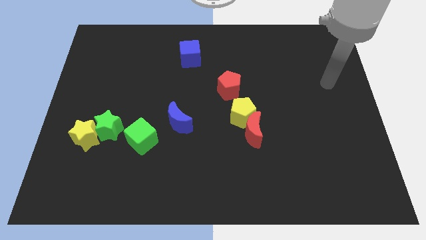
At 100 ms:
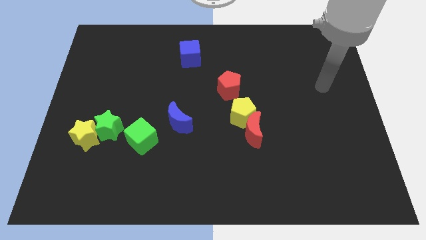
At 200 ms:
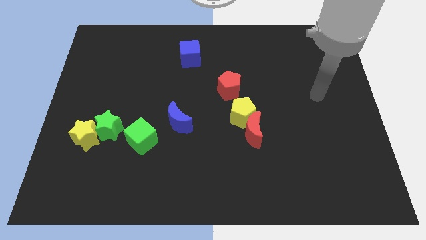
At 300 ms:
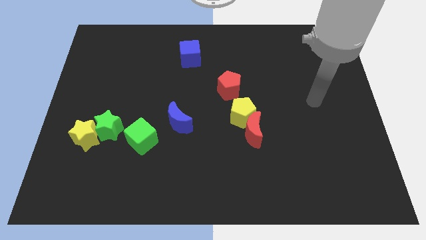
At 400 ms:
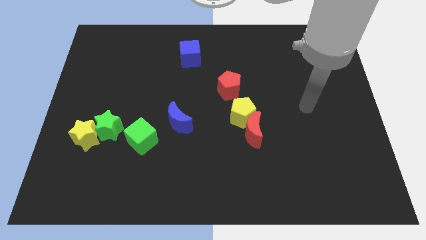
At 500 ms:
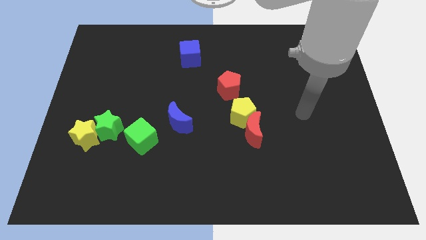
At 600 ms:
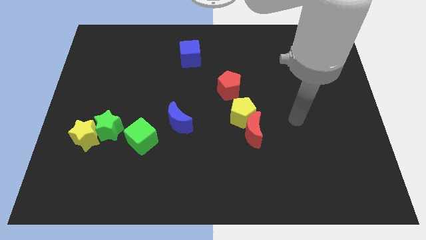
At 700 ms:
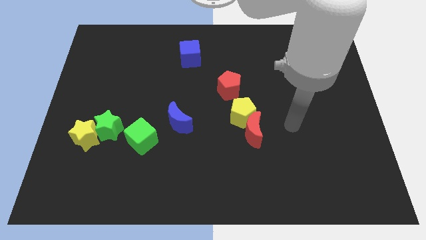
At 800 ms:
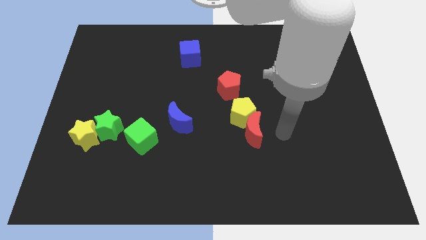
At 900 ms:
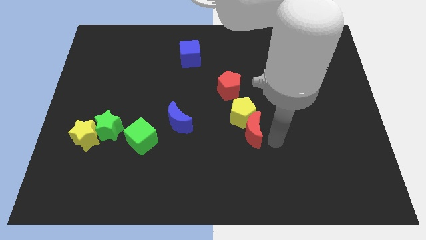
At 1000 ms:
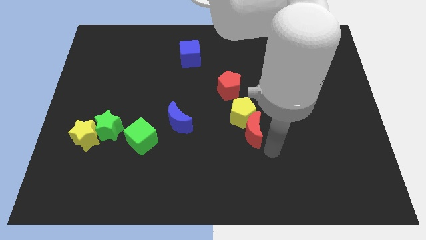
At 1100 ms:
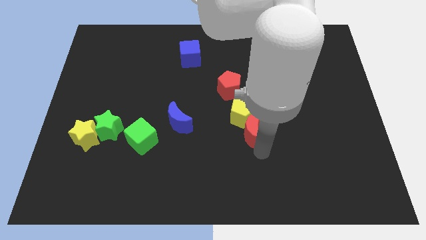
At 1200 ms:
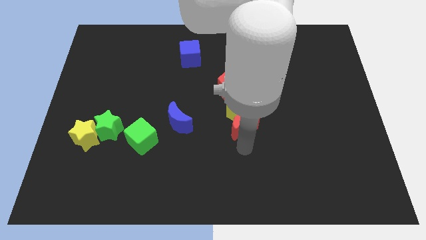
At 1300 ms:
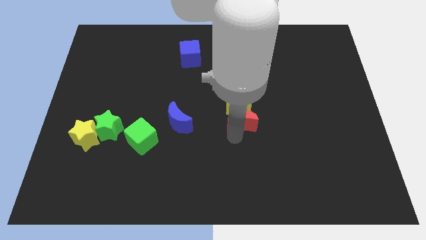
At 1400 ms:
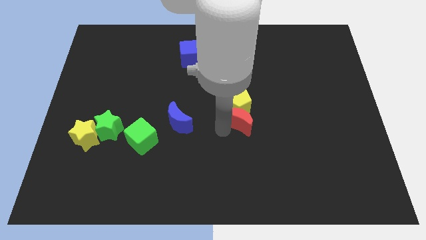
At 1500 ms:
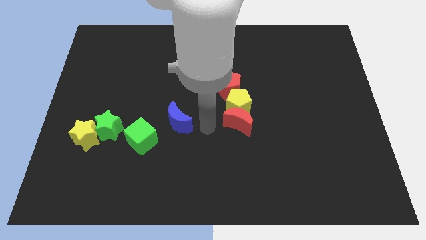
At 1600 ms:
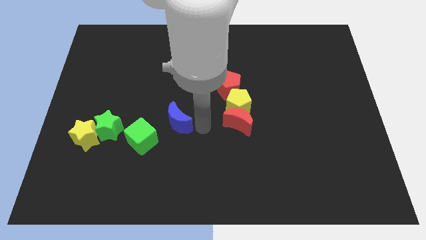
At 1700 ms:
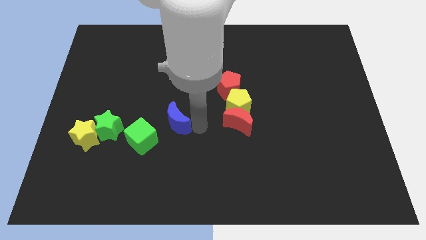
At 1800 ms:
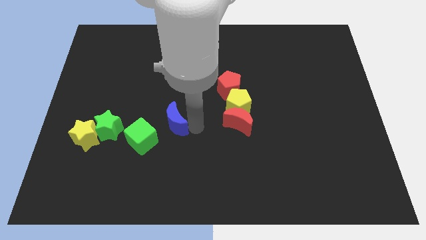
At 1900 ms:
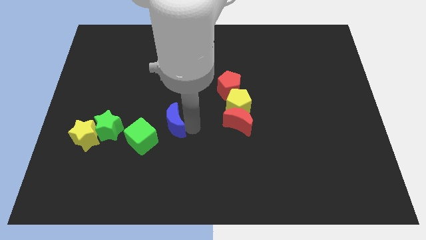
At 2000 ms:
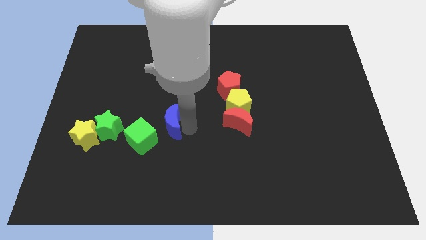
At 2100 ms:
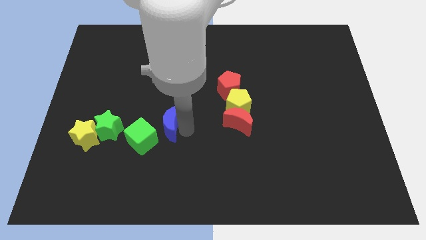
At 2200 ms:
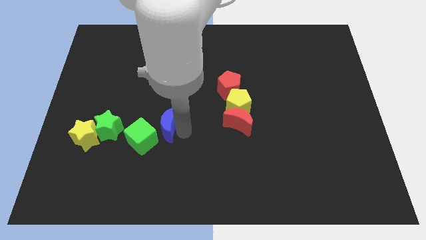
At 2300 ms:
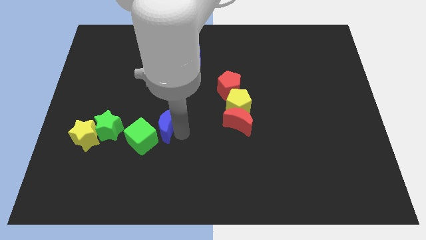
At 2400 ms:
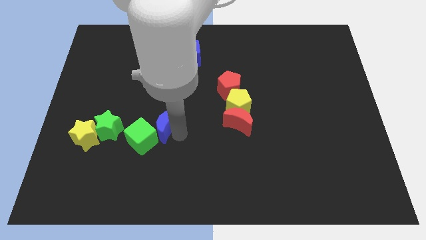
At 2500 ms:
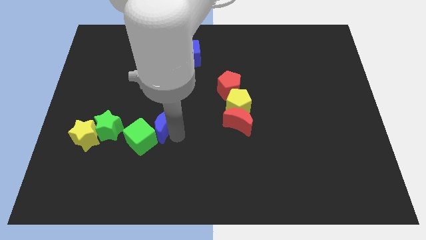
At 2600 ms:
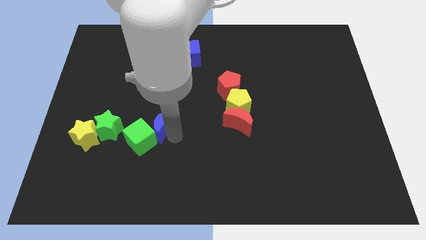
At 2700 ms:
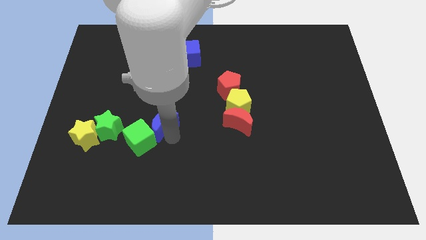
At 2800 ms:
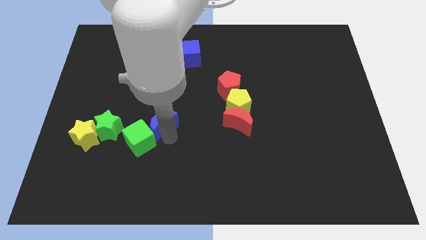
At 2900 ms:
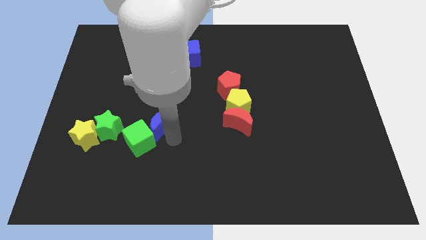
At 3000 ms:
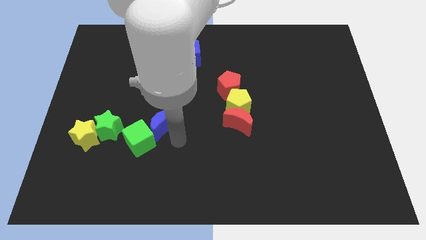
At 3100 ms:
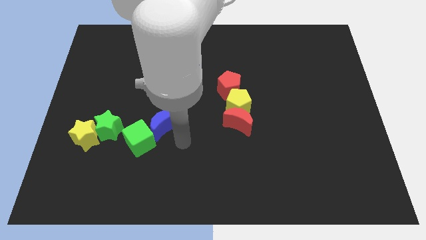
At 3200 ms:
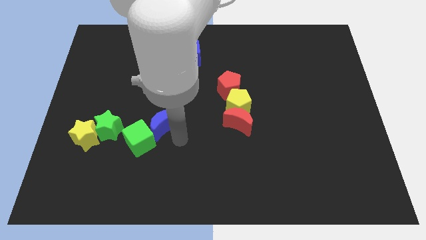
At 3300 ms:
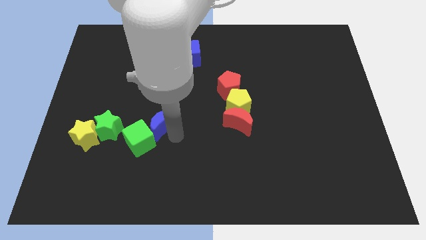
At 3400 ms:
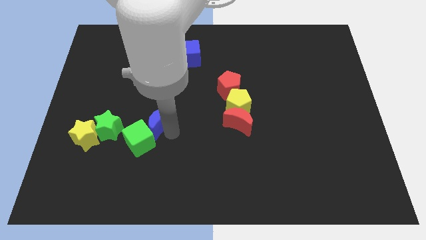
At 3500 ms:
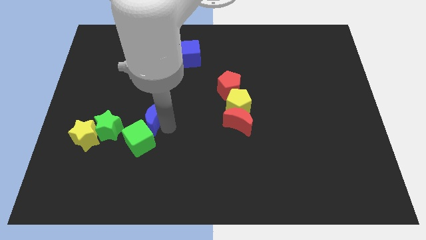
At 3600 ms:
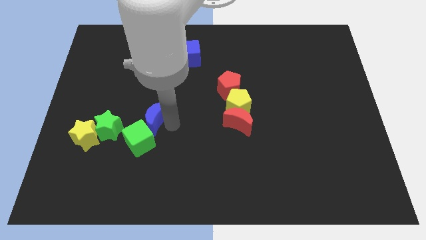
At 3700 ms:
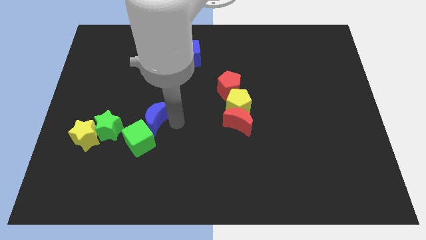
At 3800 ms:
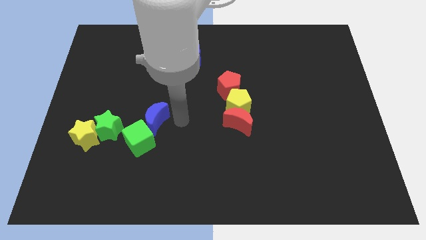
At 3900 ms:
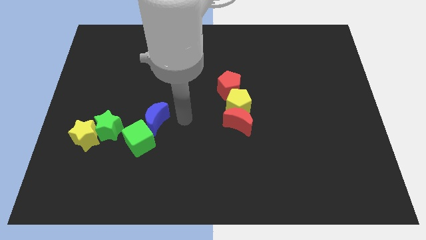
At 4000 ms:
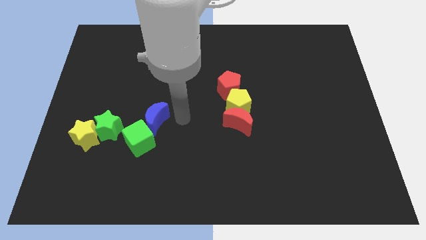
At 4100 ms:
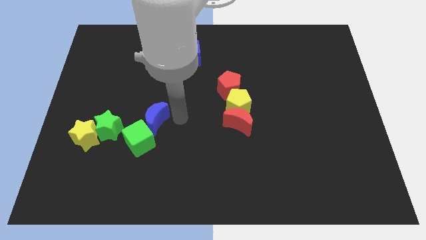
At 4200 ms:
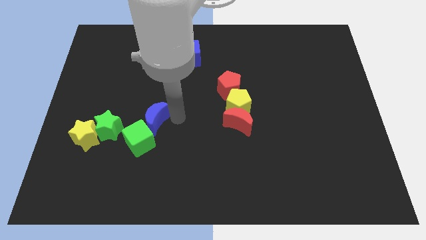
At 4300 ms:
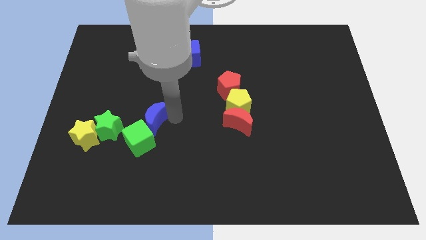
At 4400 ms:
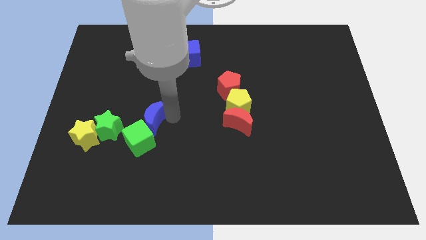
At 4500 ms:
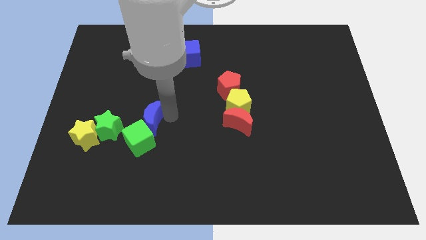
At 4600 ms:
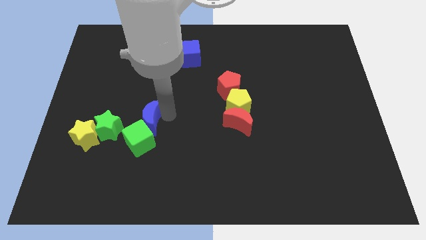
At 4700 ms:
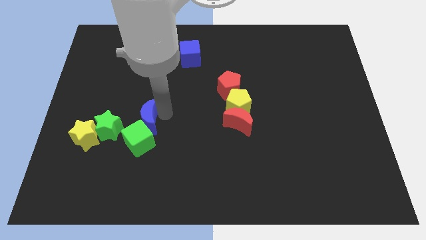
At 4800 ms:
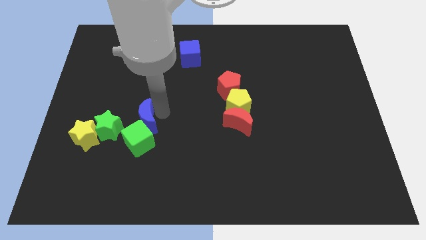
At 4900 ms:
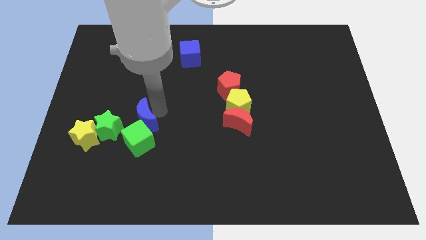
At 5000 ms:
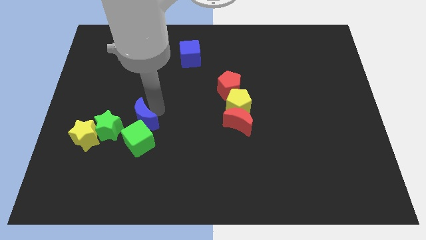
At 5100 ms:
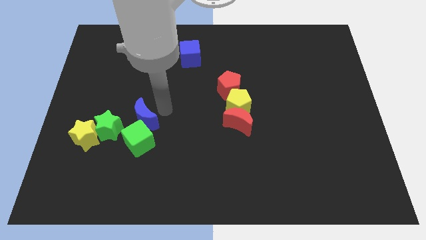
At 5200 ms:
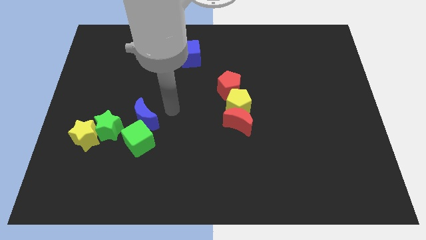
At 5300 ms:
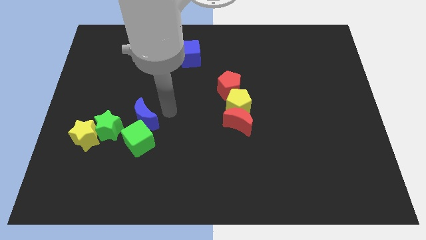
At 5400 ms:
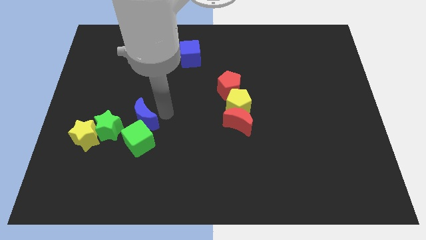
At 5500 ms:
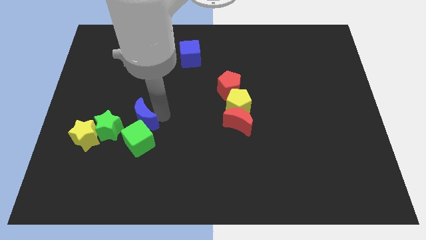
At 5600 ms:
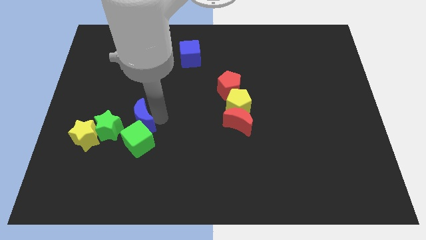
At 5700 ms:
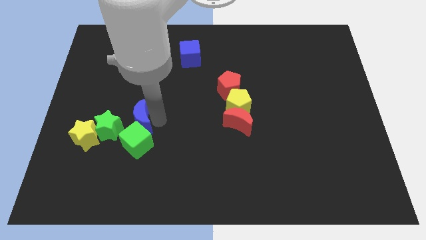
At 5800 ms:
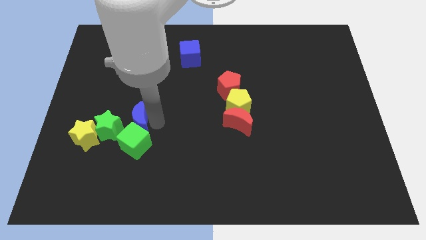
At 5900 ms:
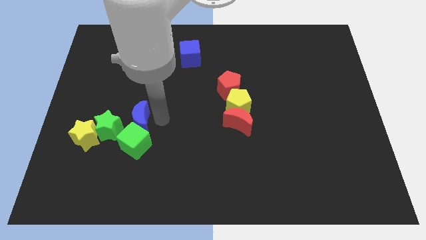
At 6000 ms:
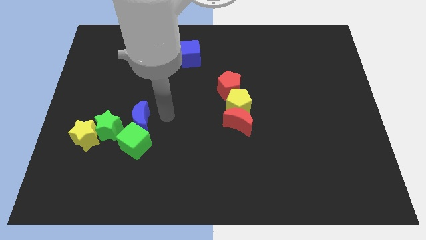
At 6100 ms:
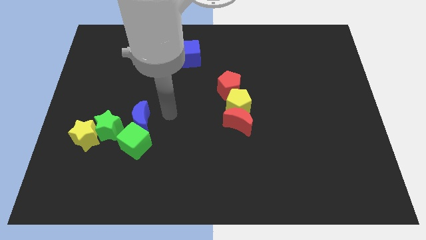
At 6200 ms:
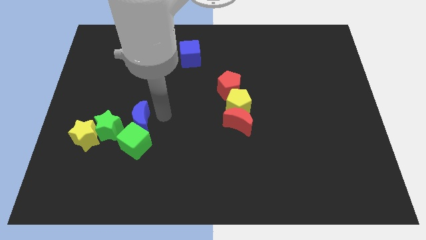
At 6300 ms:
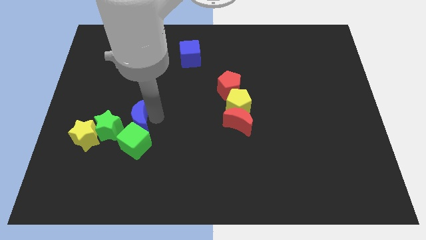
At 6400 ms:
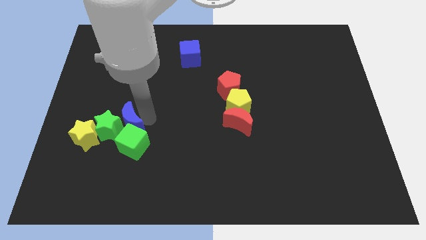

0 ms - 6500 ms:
move the blue moon next to the green star

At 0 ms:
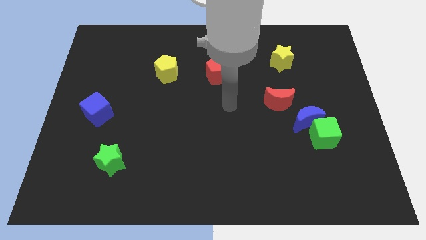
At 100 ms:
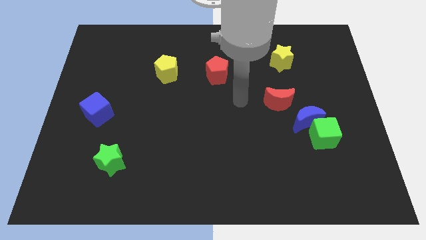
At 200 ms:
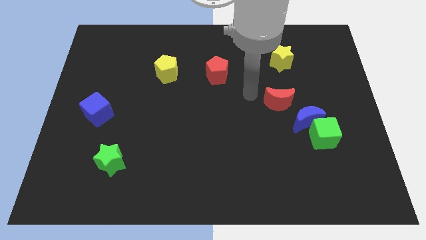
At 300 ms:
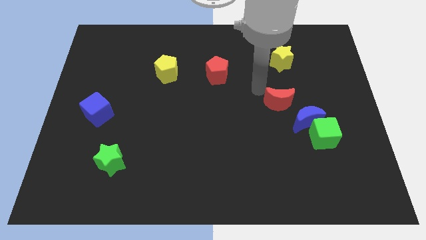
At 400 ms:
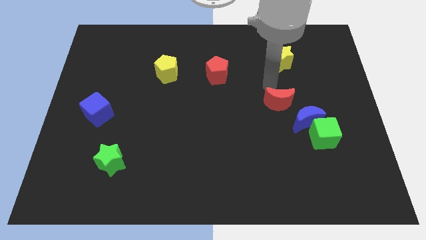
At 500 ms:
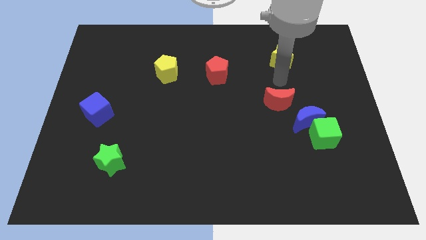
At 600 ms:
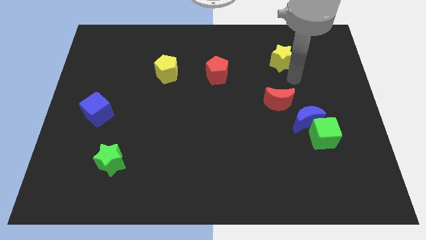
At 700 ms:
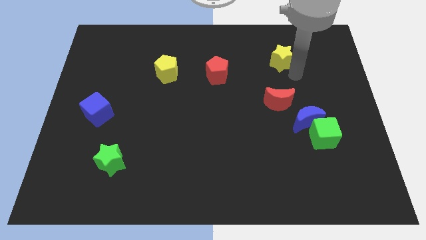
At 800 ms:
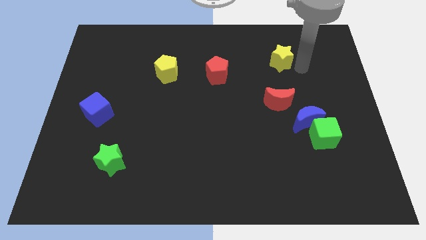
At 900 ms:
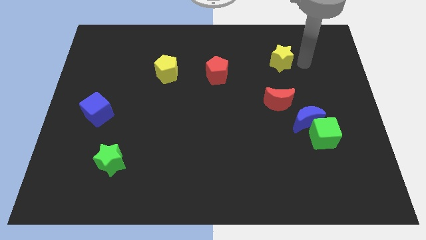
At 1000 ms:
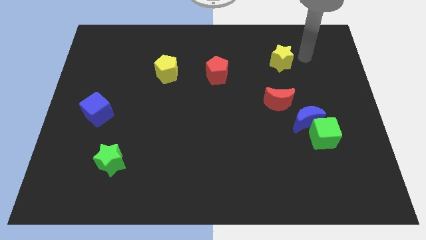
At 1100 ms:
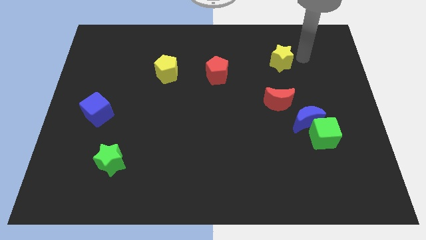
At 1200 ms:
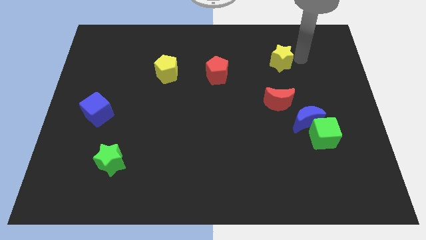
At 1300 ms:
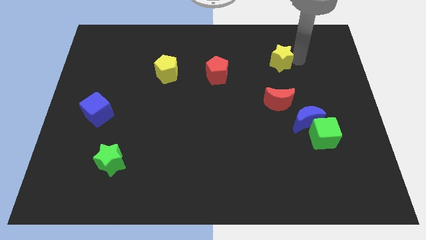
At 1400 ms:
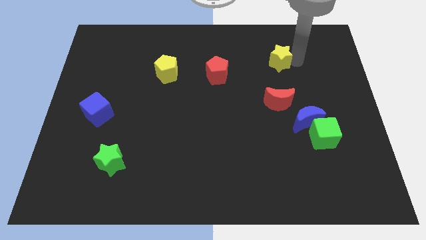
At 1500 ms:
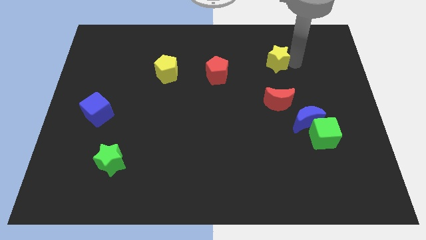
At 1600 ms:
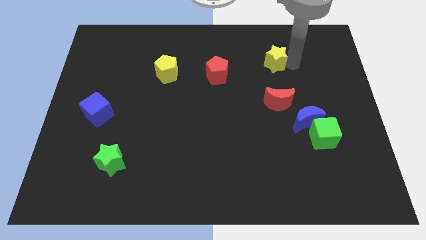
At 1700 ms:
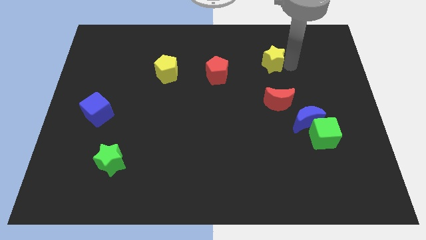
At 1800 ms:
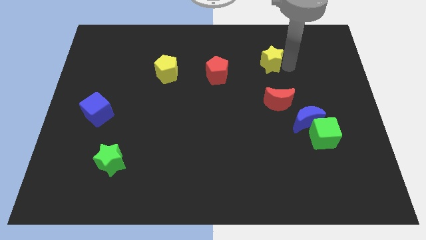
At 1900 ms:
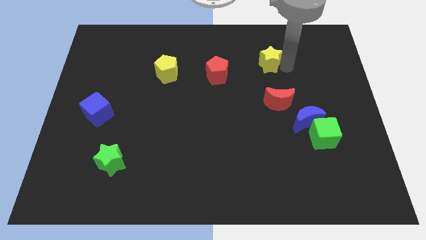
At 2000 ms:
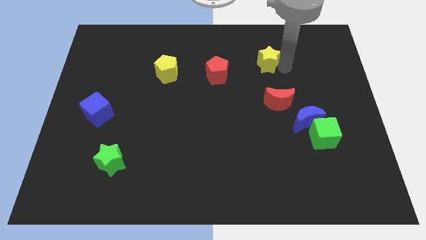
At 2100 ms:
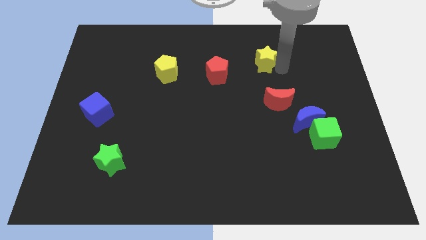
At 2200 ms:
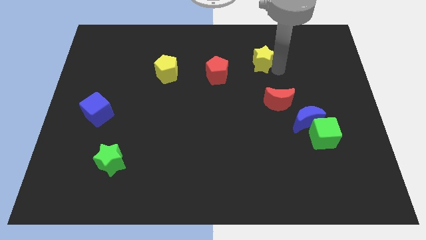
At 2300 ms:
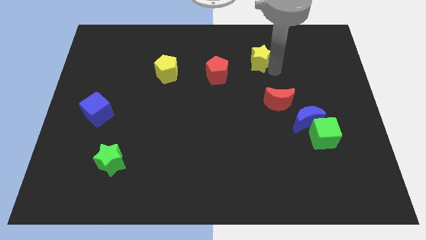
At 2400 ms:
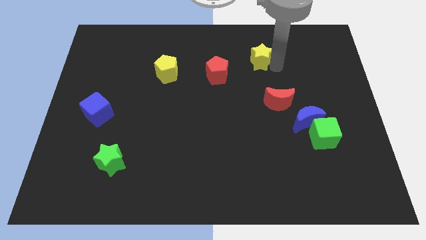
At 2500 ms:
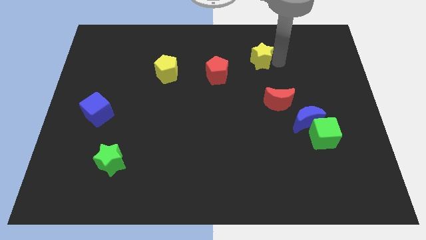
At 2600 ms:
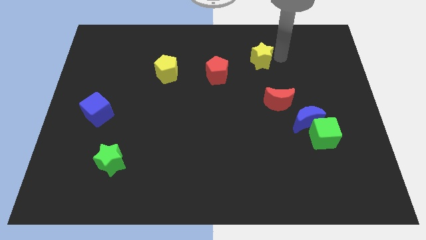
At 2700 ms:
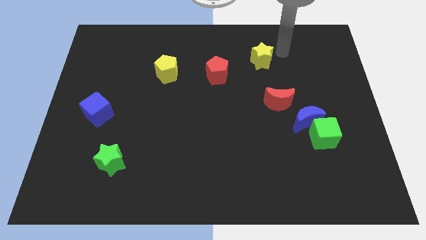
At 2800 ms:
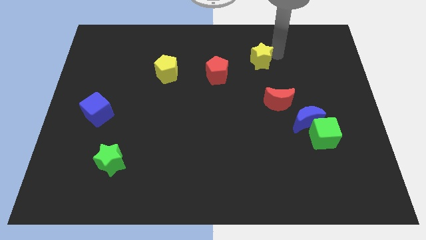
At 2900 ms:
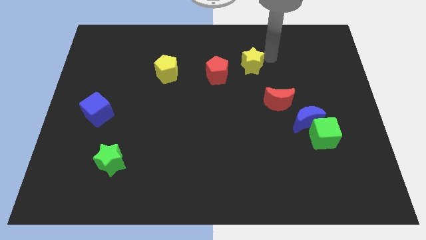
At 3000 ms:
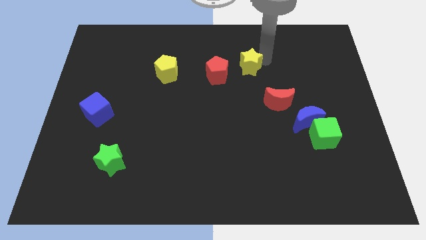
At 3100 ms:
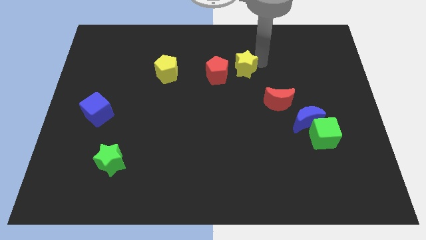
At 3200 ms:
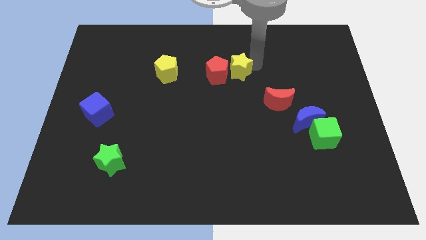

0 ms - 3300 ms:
slide the yellow star to the red pentagon
